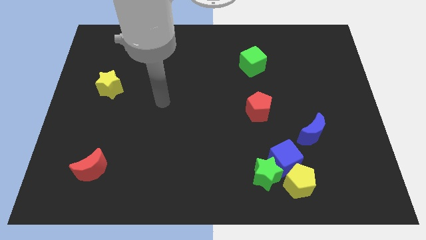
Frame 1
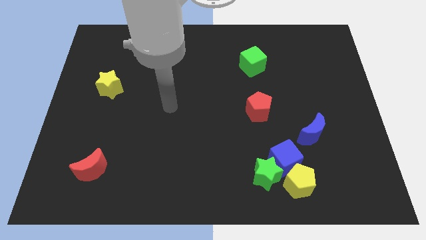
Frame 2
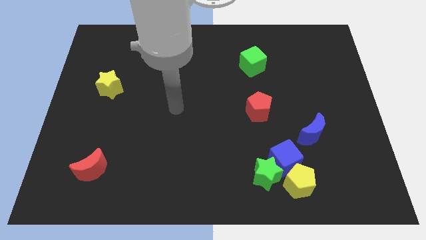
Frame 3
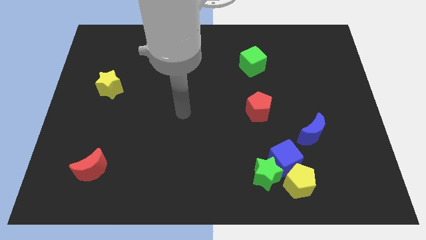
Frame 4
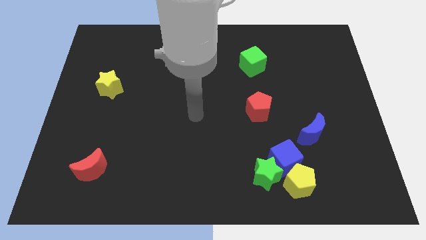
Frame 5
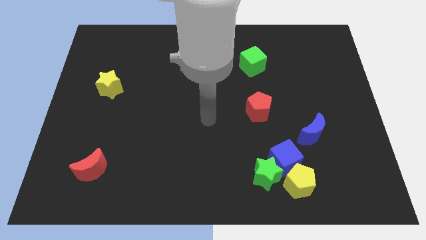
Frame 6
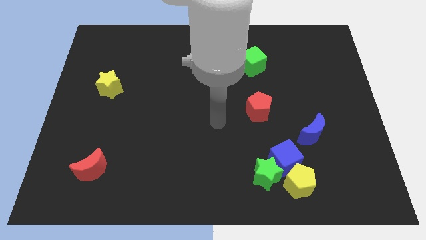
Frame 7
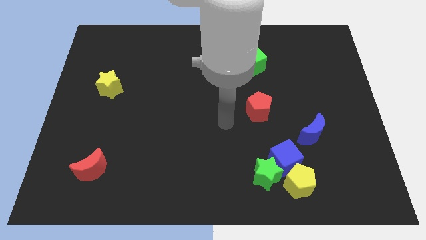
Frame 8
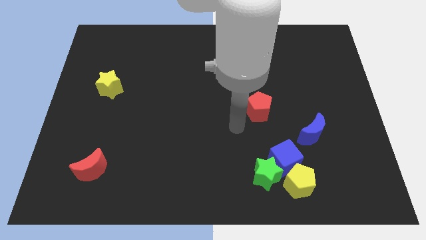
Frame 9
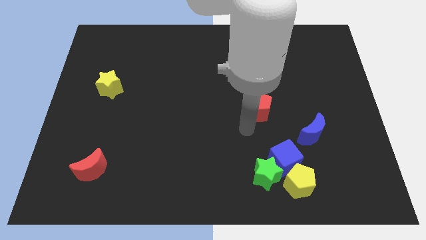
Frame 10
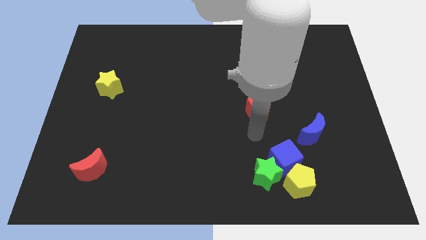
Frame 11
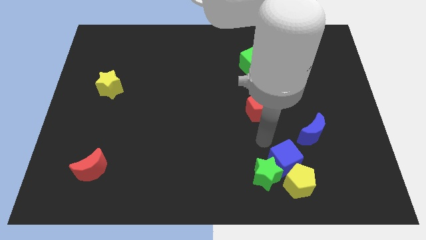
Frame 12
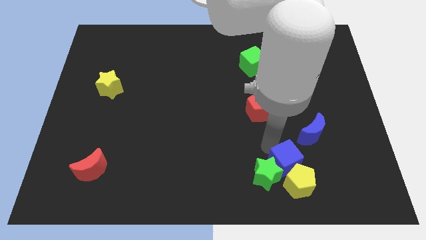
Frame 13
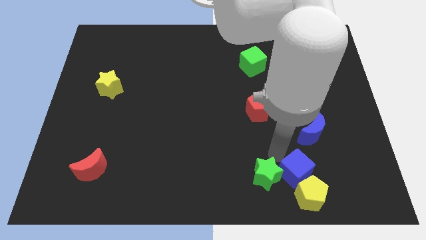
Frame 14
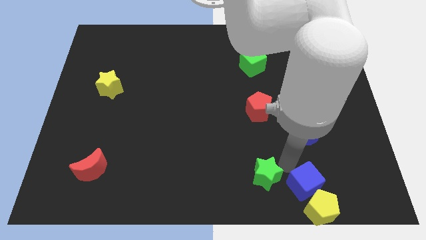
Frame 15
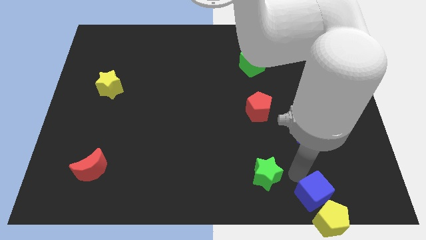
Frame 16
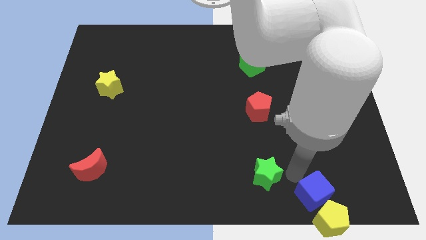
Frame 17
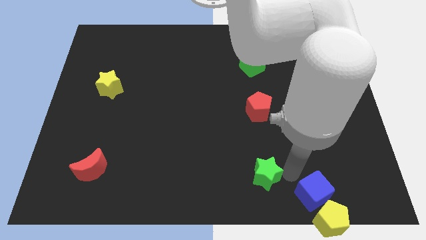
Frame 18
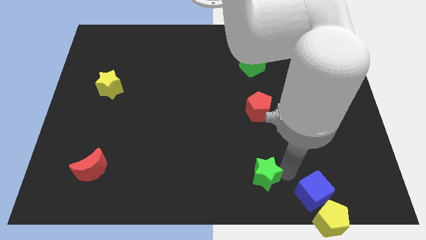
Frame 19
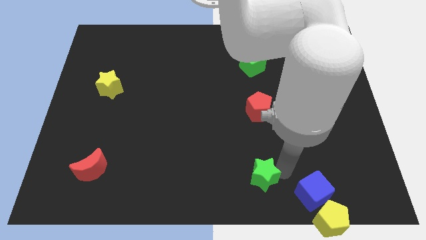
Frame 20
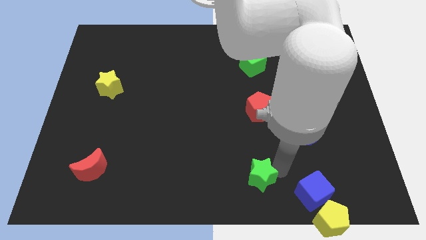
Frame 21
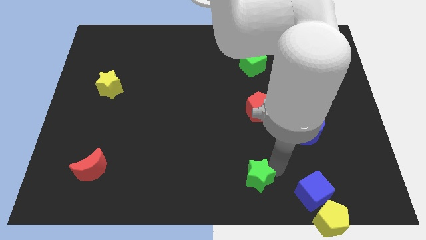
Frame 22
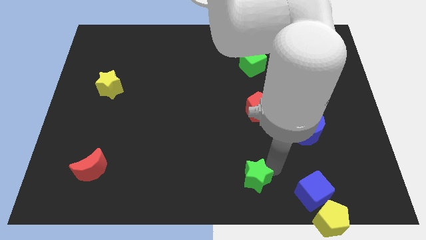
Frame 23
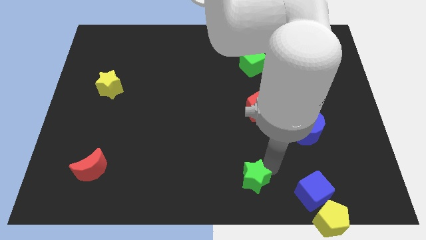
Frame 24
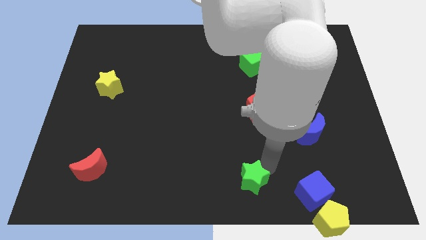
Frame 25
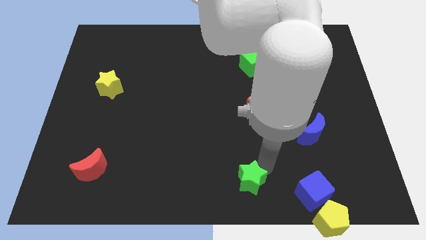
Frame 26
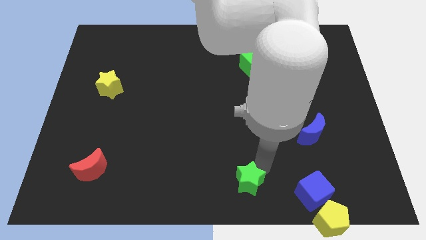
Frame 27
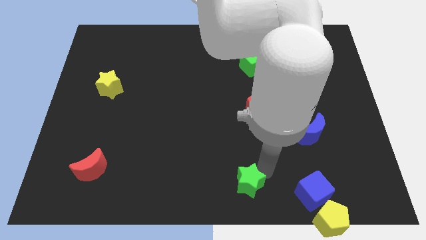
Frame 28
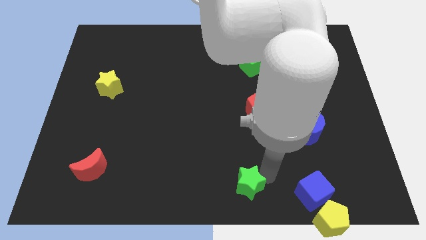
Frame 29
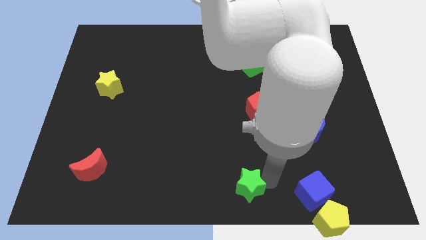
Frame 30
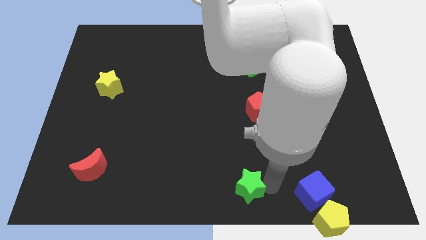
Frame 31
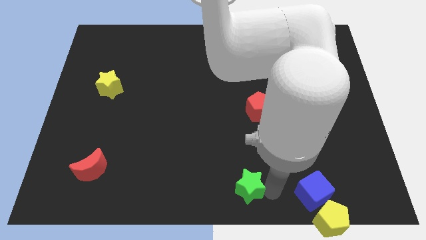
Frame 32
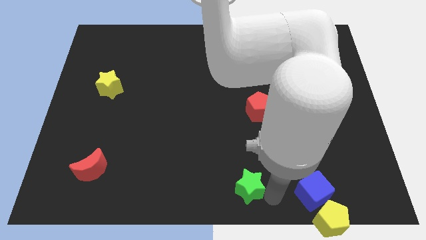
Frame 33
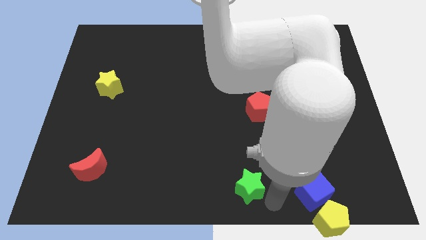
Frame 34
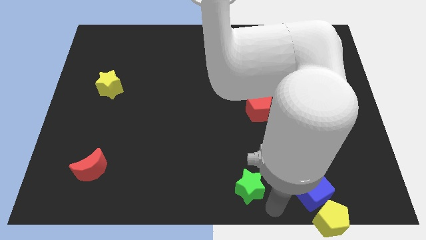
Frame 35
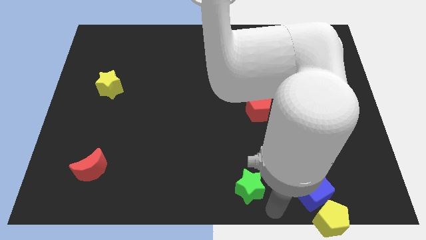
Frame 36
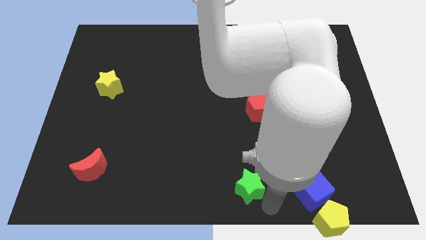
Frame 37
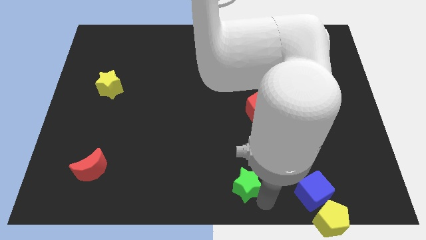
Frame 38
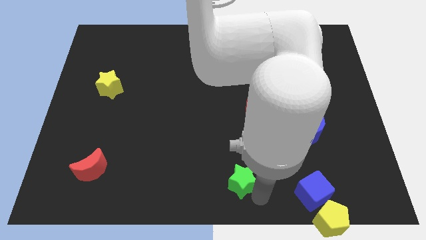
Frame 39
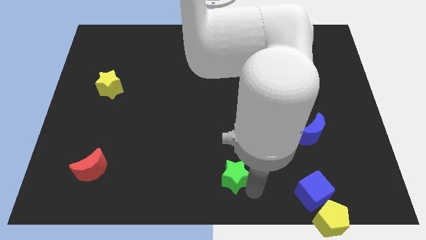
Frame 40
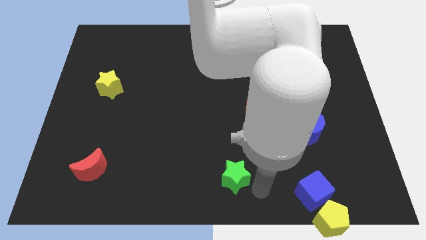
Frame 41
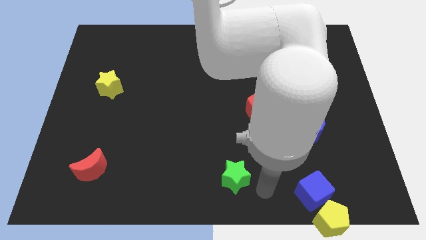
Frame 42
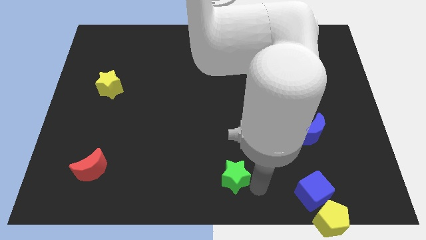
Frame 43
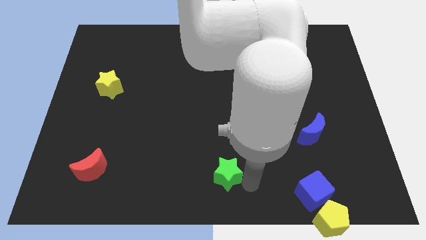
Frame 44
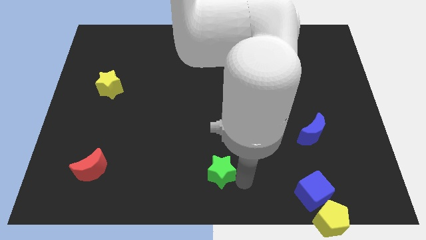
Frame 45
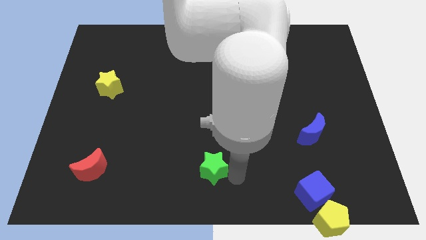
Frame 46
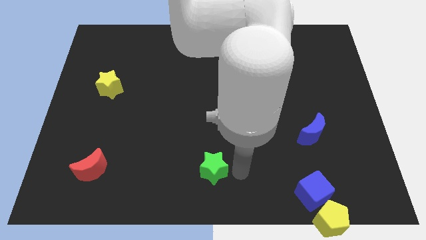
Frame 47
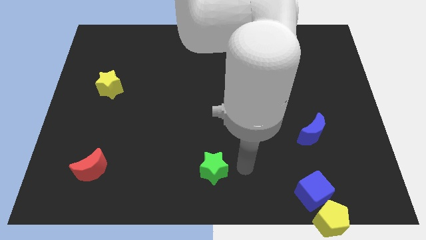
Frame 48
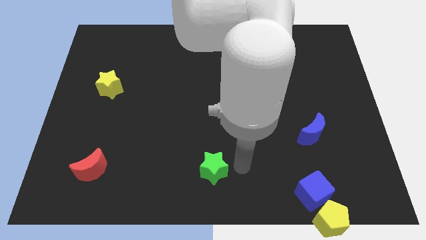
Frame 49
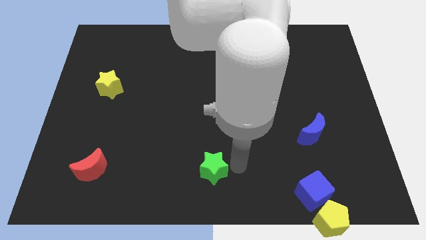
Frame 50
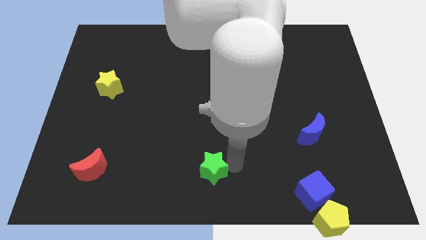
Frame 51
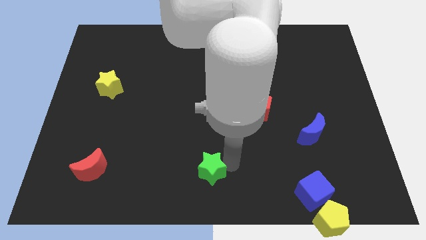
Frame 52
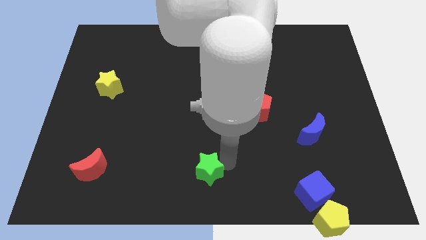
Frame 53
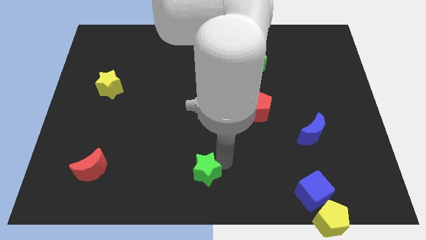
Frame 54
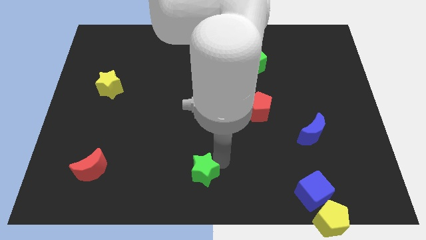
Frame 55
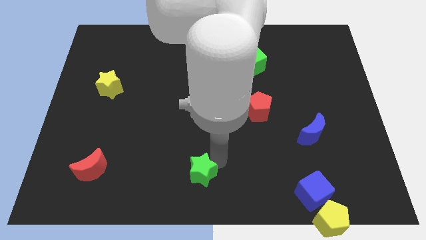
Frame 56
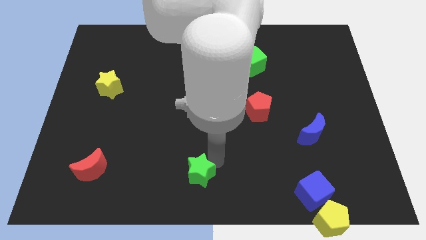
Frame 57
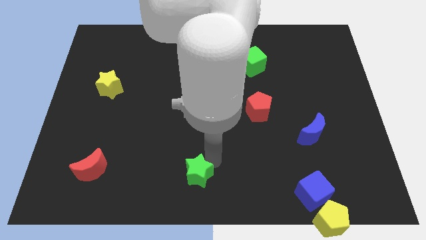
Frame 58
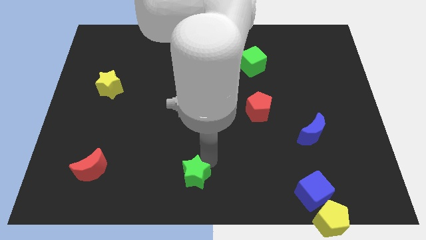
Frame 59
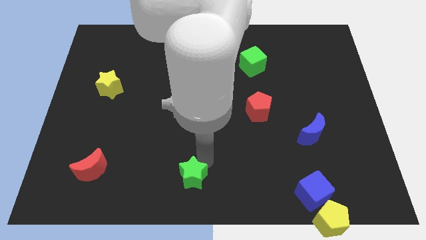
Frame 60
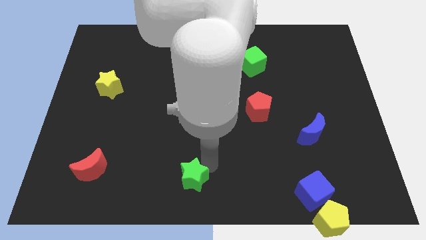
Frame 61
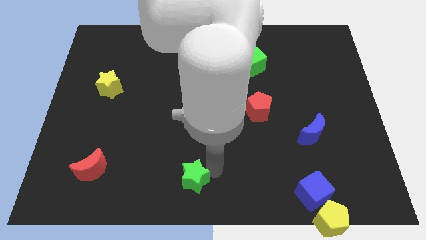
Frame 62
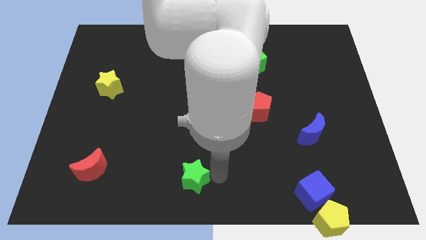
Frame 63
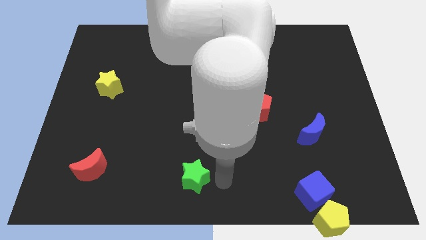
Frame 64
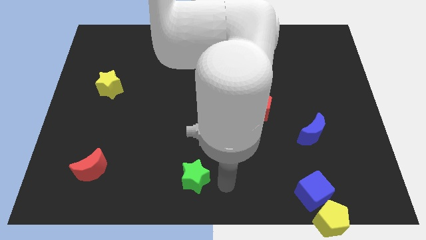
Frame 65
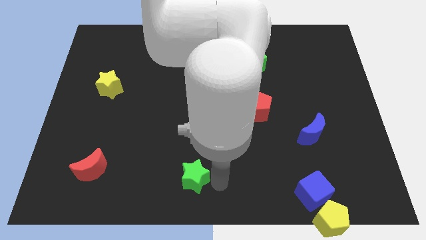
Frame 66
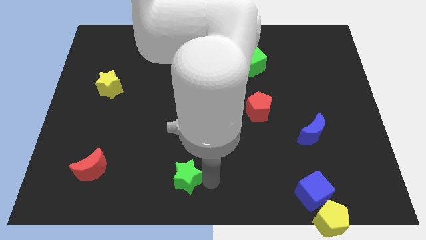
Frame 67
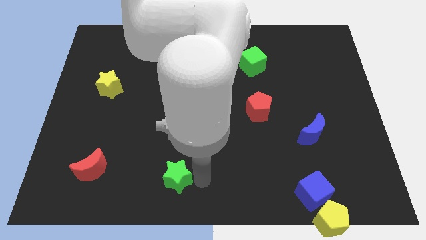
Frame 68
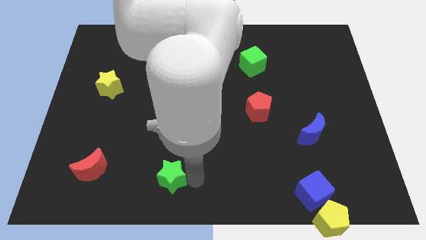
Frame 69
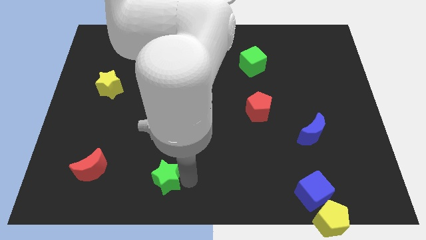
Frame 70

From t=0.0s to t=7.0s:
put the green star to the right side of the red moon

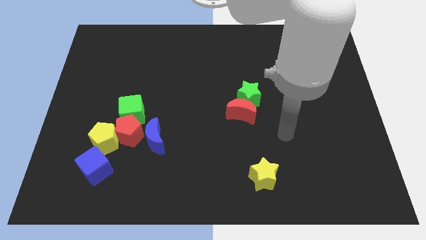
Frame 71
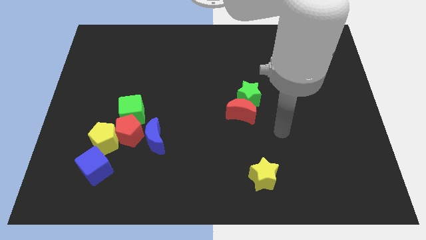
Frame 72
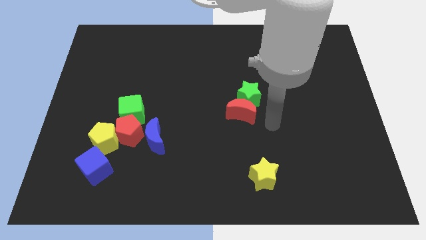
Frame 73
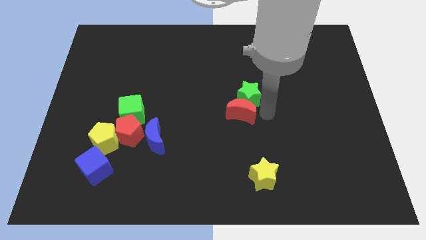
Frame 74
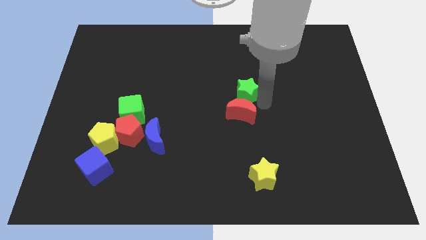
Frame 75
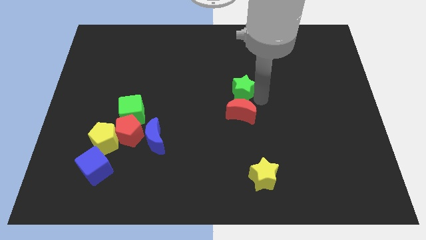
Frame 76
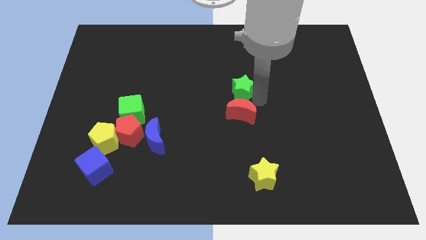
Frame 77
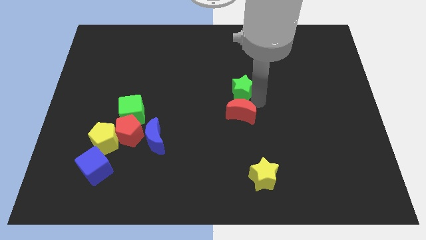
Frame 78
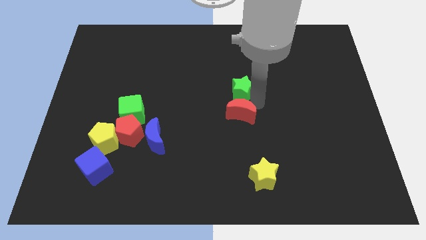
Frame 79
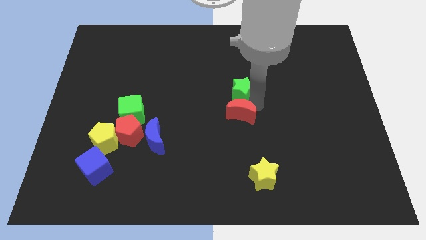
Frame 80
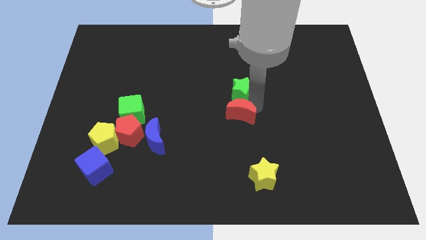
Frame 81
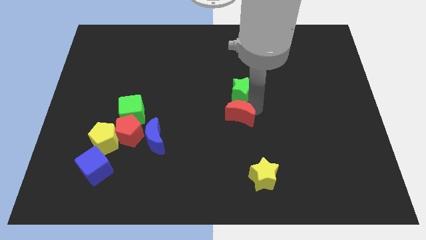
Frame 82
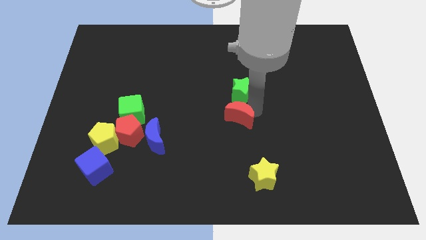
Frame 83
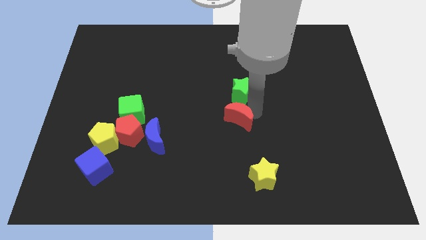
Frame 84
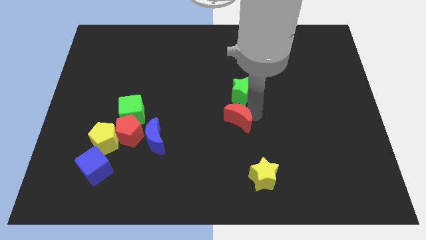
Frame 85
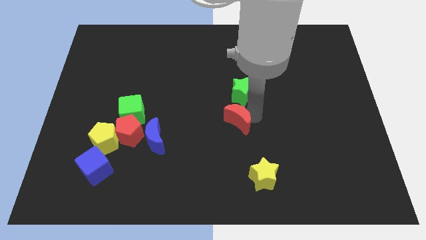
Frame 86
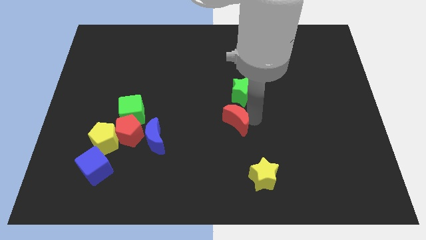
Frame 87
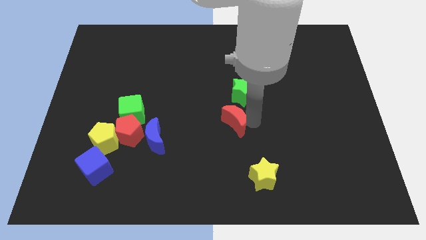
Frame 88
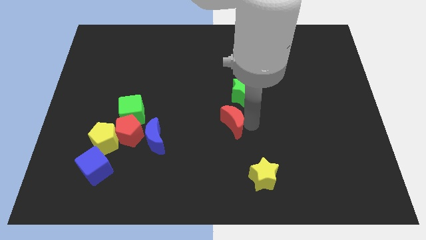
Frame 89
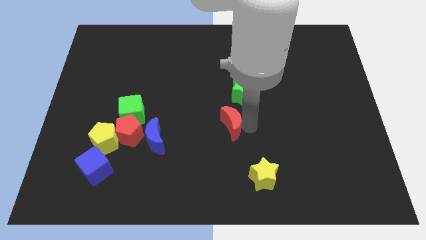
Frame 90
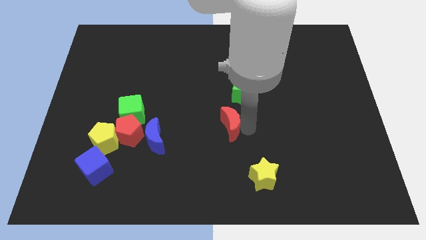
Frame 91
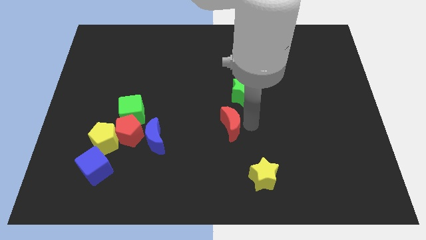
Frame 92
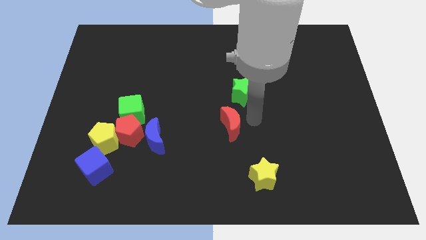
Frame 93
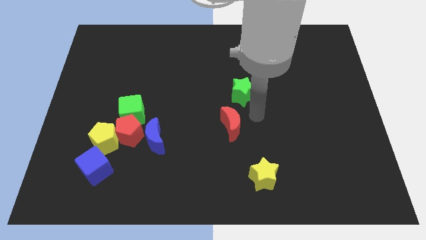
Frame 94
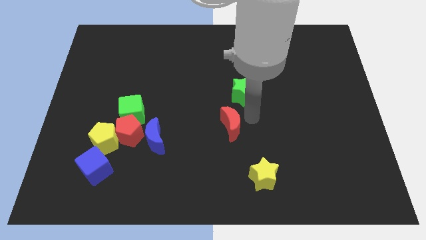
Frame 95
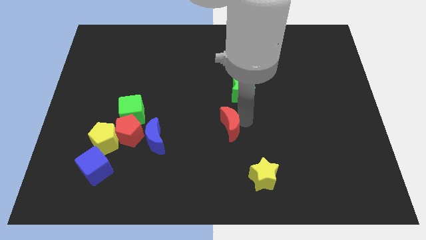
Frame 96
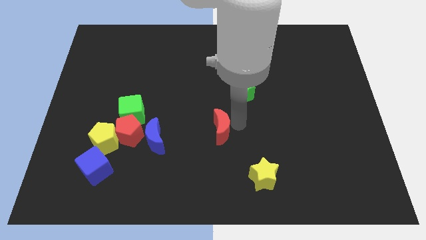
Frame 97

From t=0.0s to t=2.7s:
put the red moon to the right side of the blue moon
